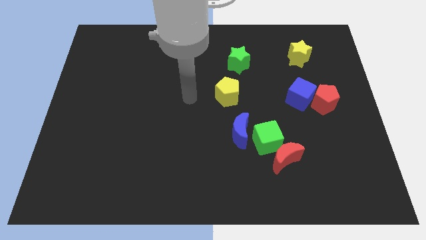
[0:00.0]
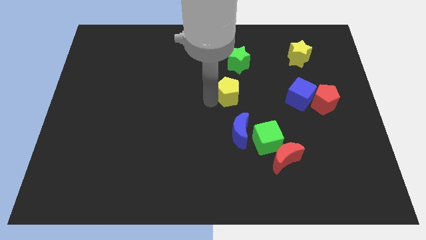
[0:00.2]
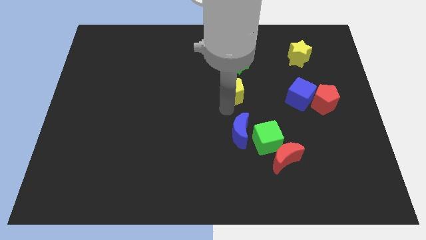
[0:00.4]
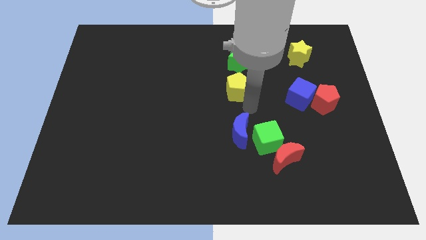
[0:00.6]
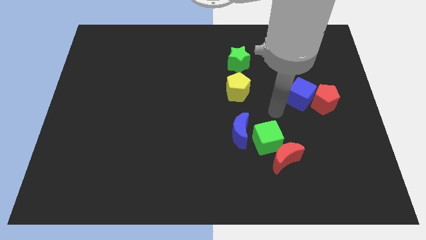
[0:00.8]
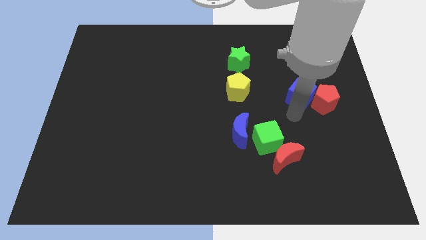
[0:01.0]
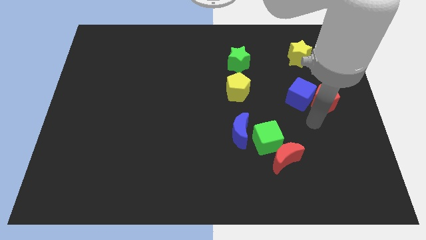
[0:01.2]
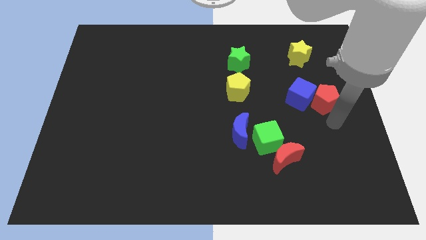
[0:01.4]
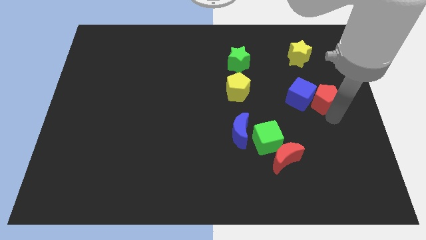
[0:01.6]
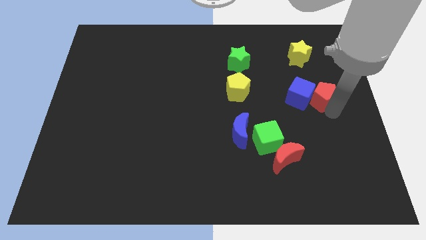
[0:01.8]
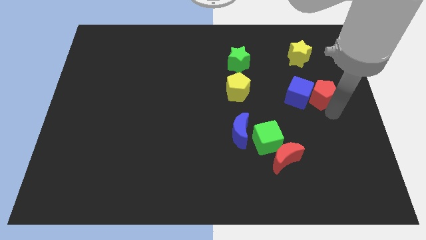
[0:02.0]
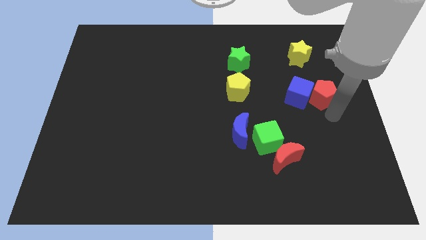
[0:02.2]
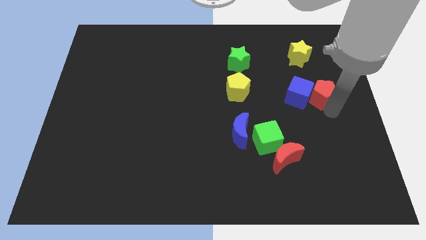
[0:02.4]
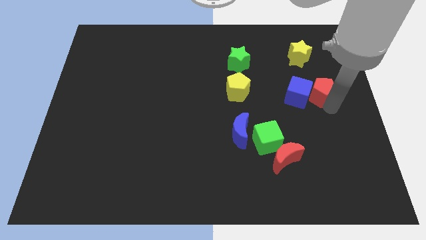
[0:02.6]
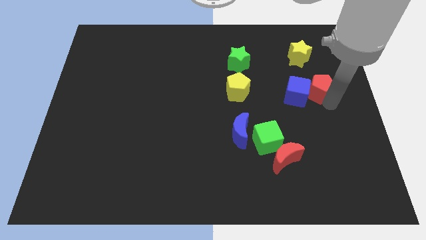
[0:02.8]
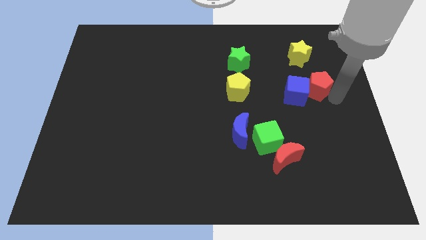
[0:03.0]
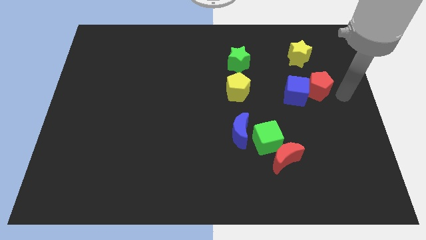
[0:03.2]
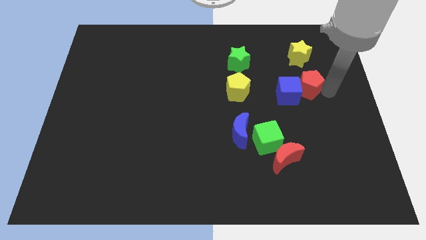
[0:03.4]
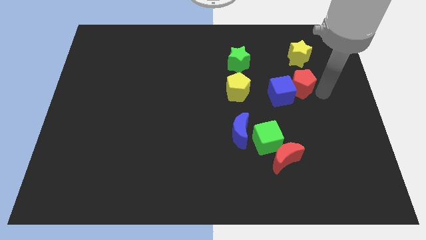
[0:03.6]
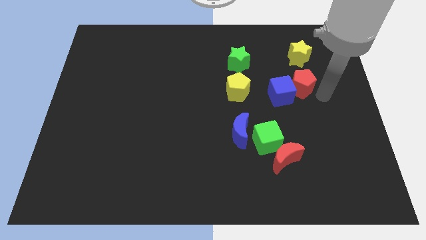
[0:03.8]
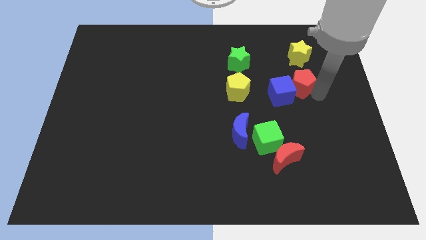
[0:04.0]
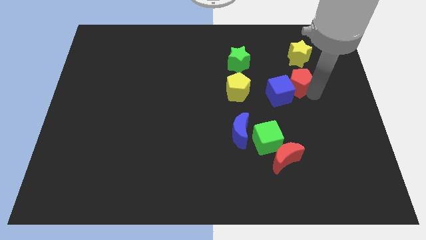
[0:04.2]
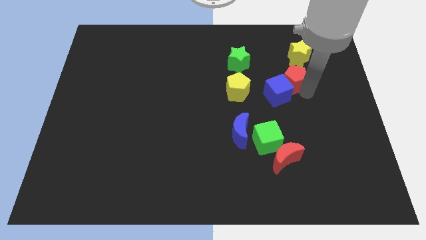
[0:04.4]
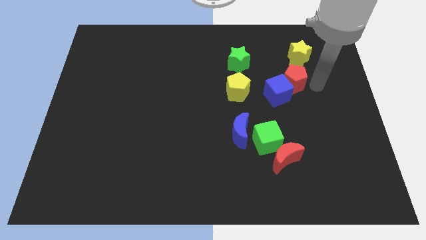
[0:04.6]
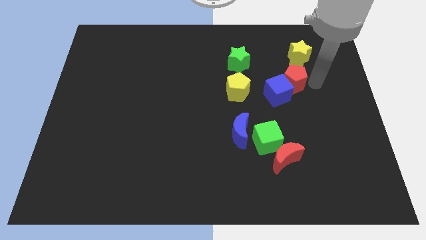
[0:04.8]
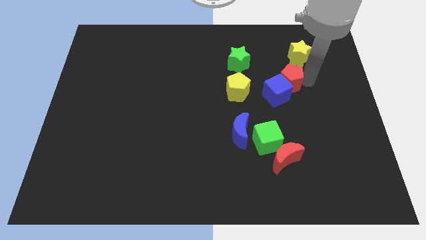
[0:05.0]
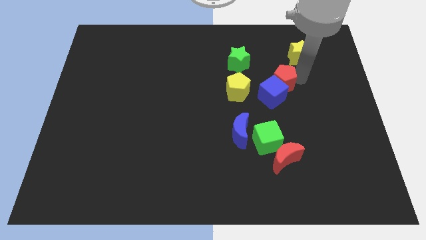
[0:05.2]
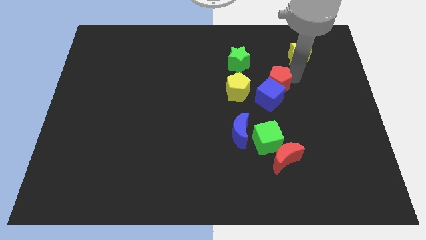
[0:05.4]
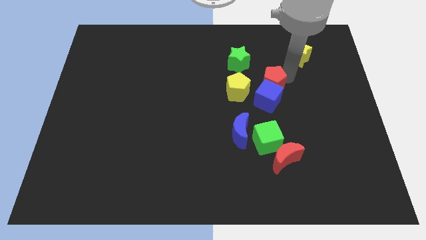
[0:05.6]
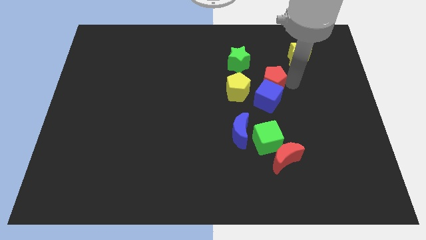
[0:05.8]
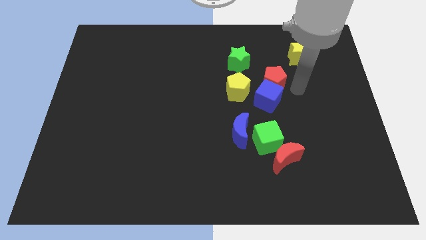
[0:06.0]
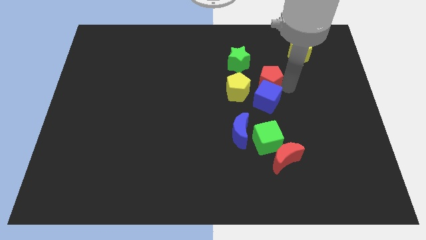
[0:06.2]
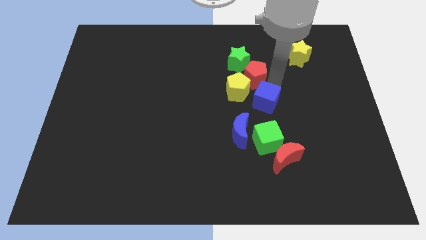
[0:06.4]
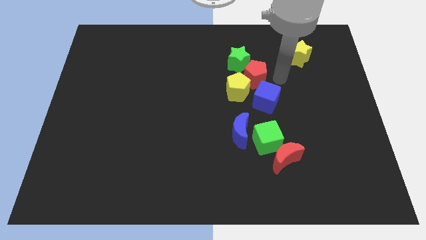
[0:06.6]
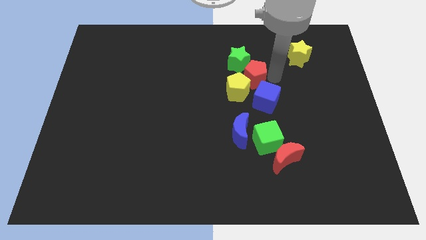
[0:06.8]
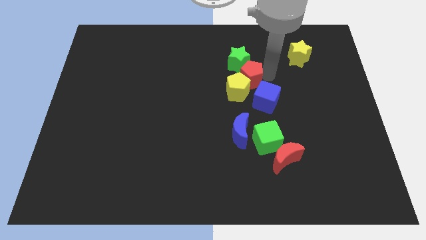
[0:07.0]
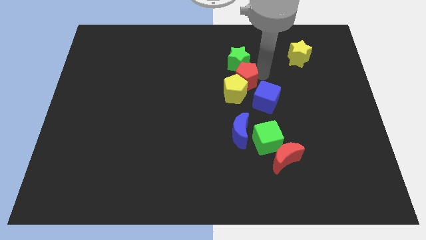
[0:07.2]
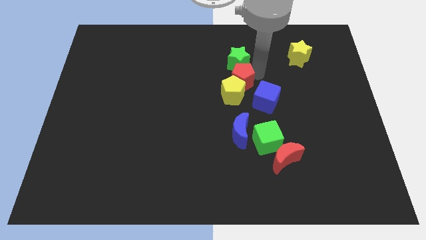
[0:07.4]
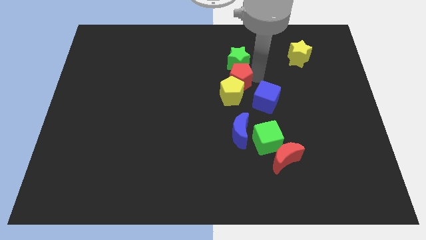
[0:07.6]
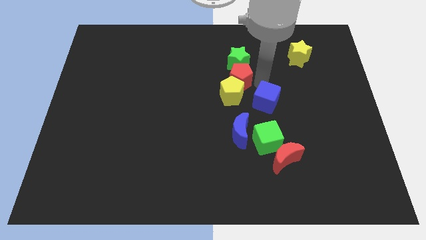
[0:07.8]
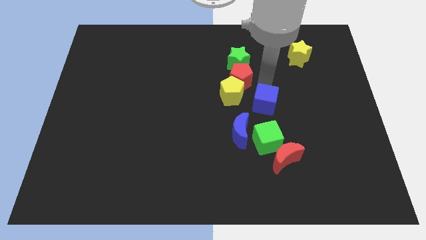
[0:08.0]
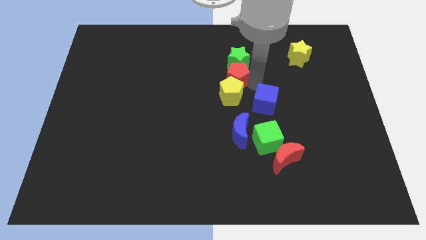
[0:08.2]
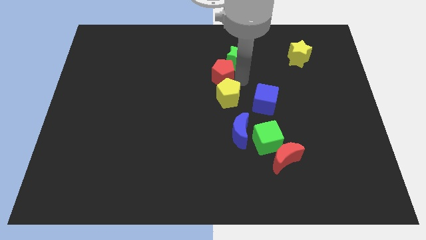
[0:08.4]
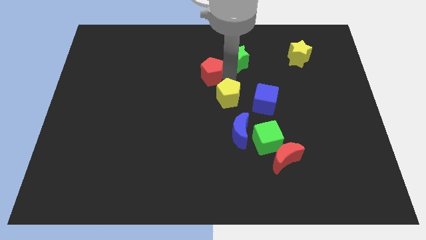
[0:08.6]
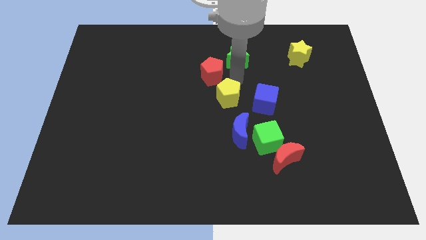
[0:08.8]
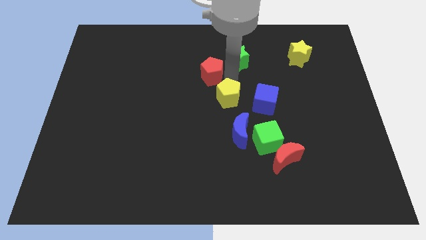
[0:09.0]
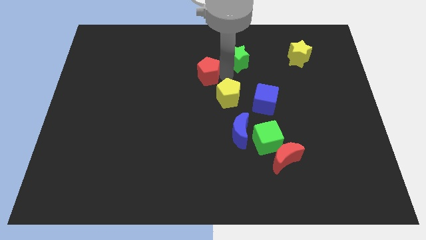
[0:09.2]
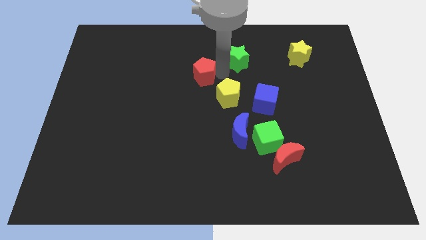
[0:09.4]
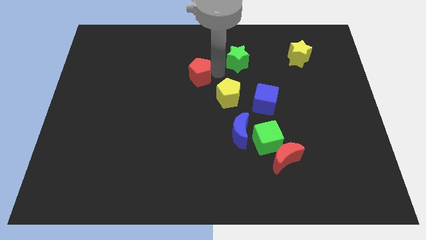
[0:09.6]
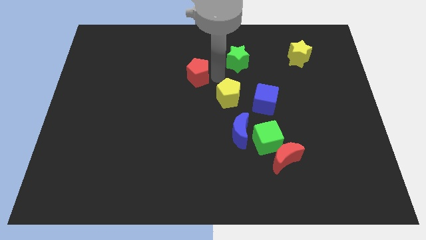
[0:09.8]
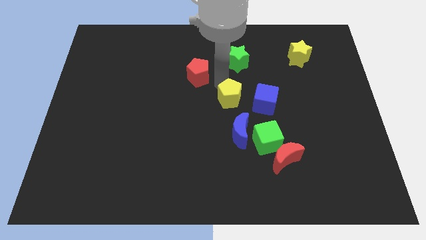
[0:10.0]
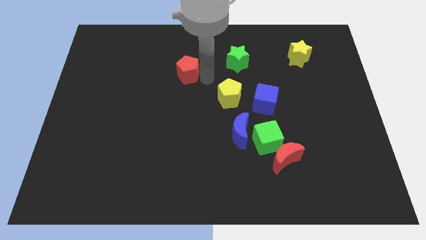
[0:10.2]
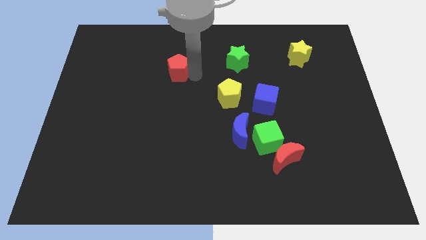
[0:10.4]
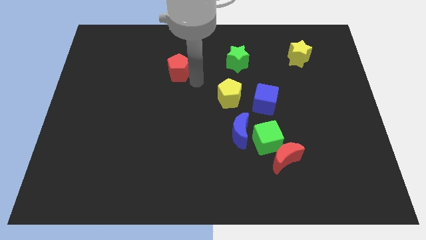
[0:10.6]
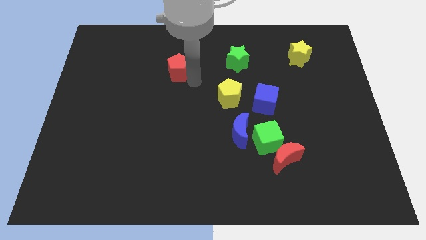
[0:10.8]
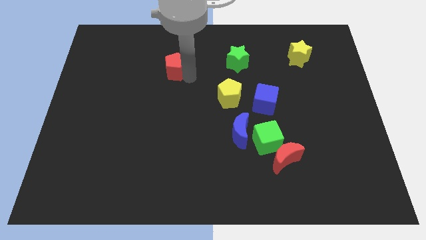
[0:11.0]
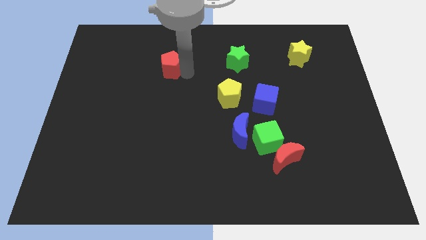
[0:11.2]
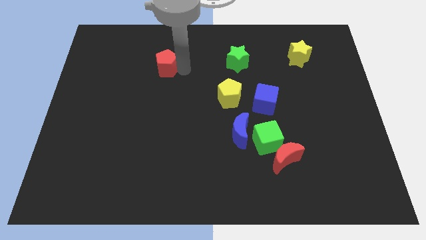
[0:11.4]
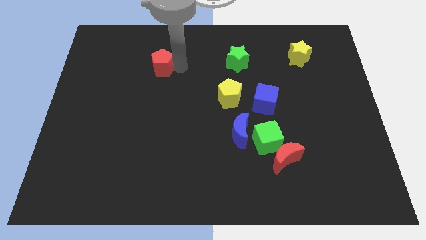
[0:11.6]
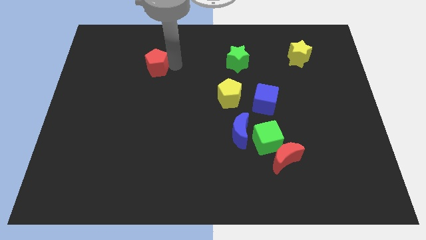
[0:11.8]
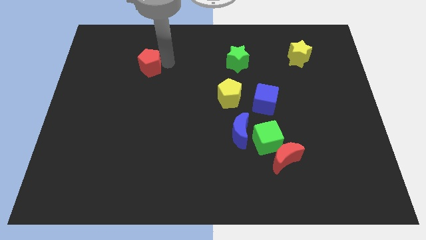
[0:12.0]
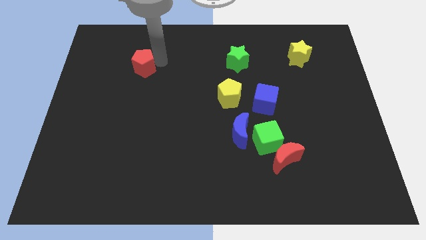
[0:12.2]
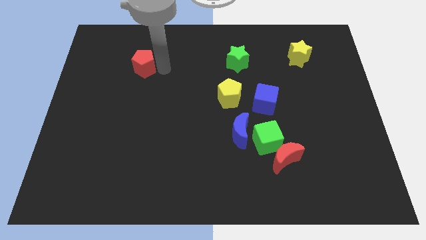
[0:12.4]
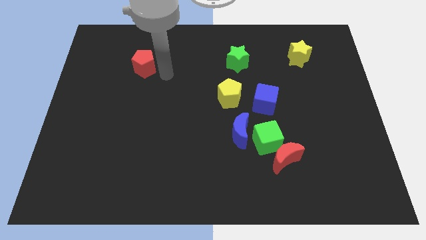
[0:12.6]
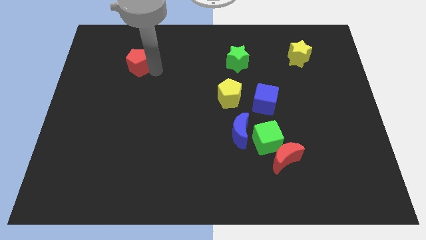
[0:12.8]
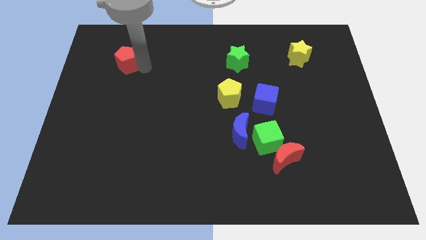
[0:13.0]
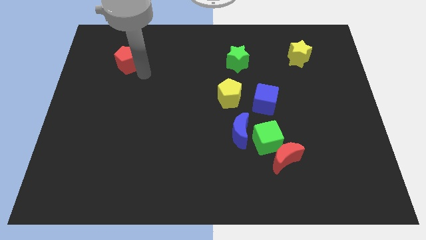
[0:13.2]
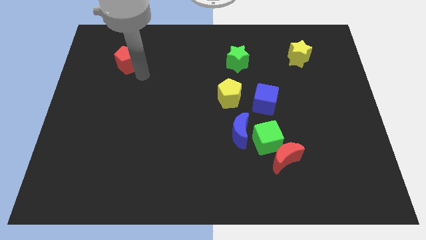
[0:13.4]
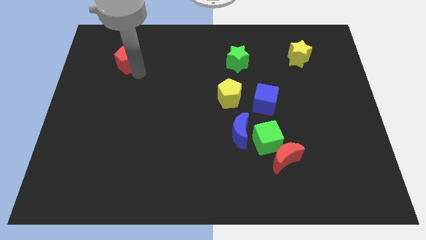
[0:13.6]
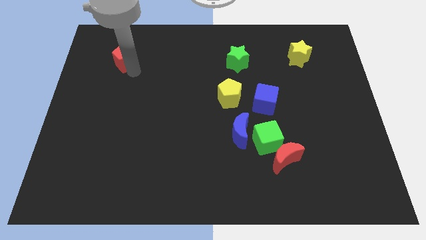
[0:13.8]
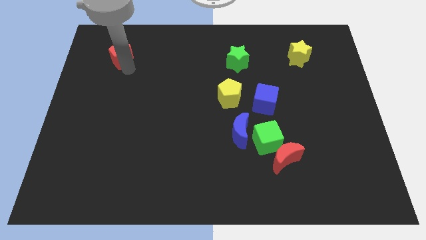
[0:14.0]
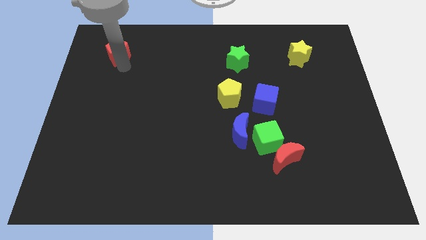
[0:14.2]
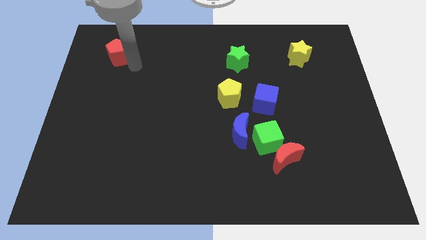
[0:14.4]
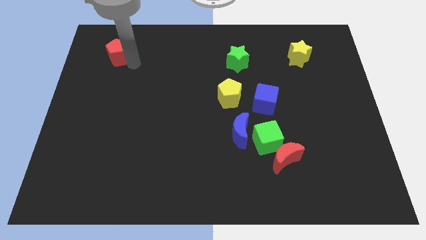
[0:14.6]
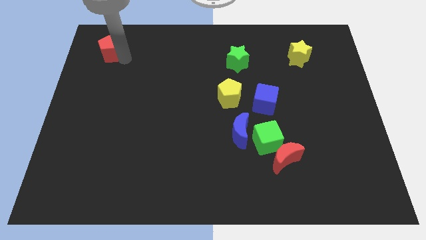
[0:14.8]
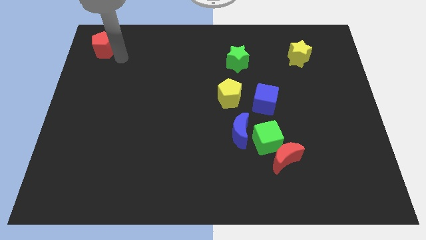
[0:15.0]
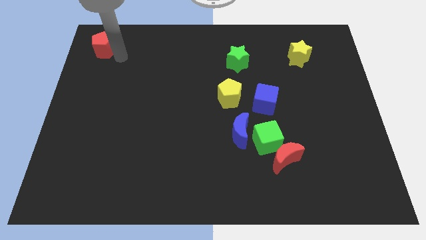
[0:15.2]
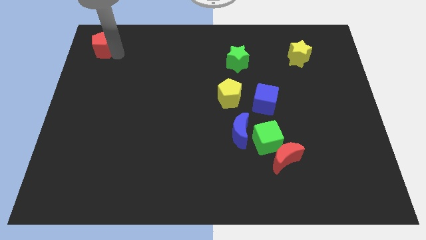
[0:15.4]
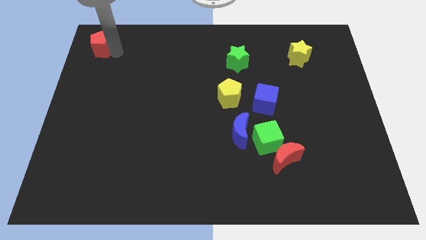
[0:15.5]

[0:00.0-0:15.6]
slide the red pentagon to the top left
